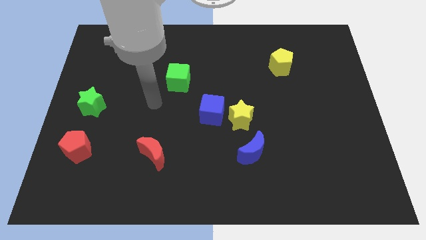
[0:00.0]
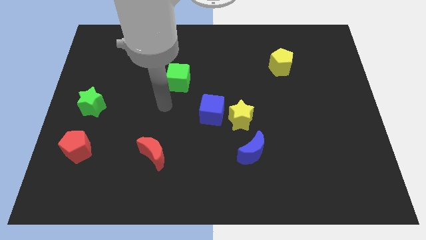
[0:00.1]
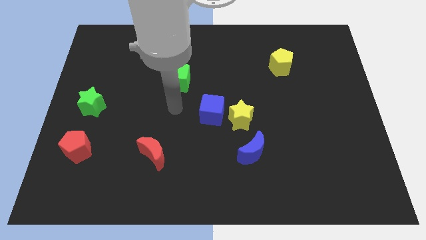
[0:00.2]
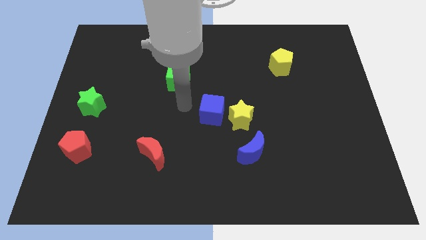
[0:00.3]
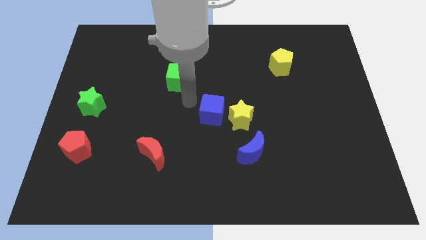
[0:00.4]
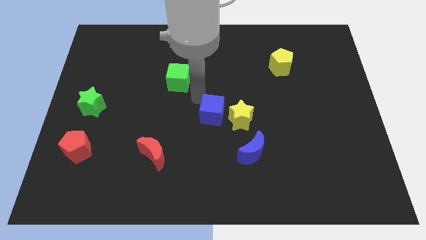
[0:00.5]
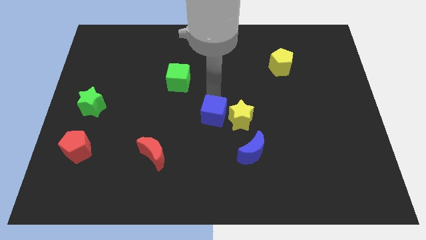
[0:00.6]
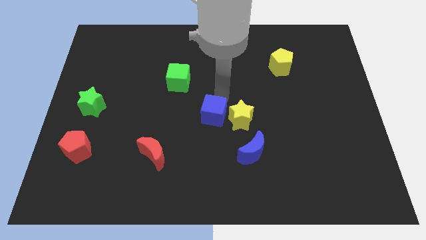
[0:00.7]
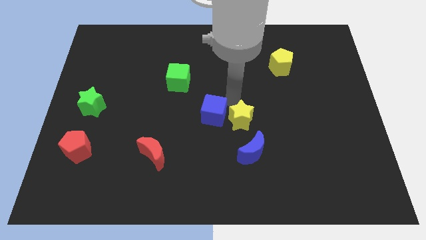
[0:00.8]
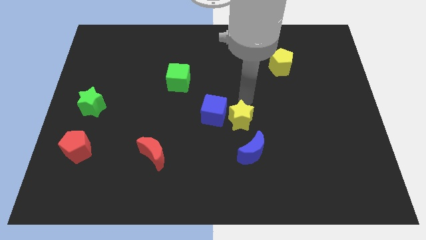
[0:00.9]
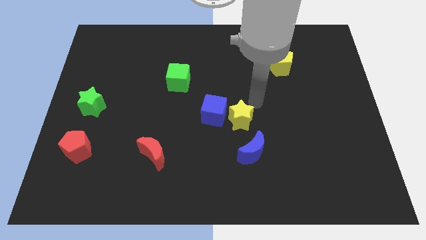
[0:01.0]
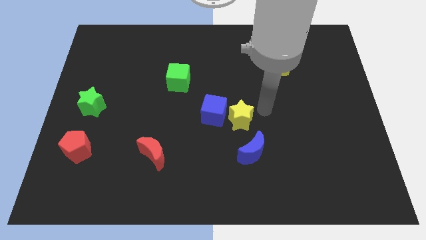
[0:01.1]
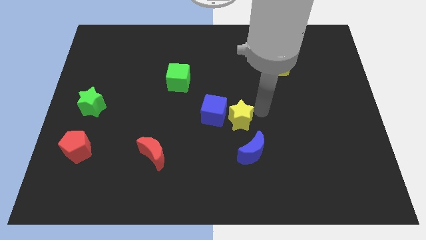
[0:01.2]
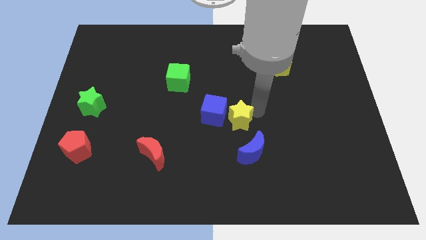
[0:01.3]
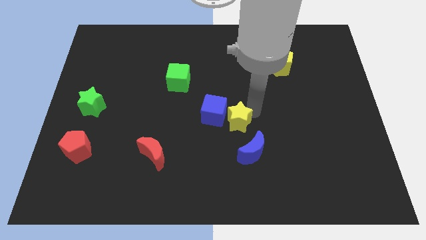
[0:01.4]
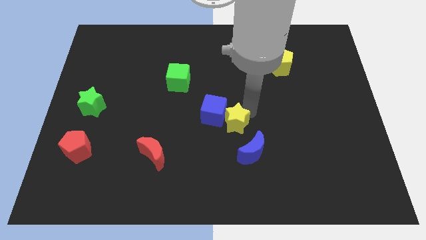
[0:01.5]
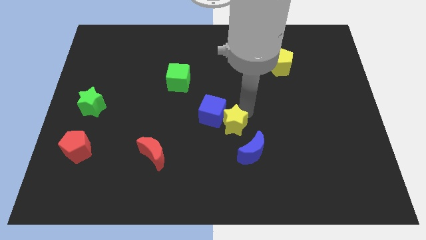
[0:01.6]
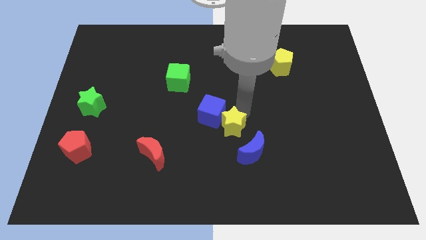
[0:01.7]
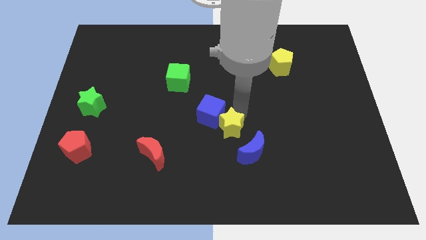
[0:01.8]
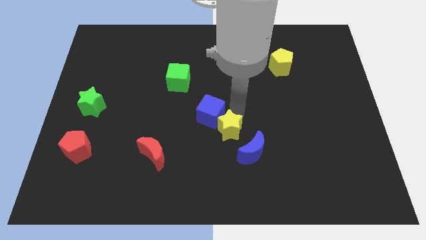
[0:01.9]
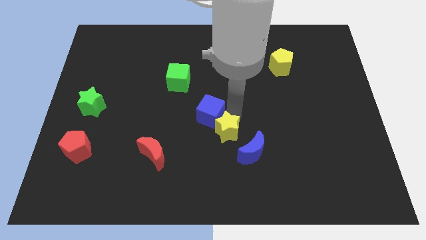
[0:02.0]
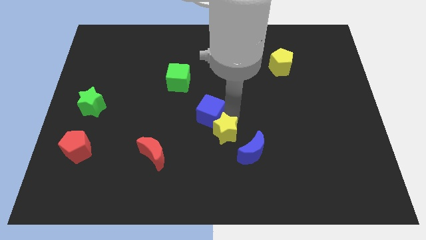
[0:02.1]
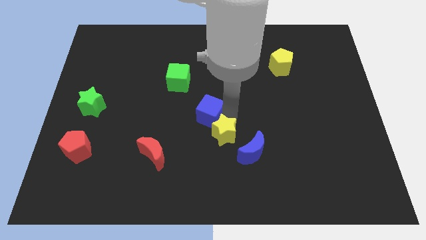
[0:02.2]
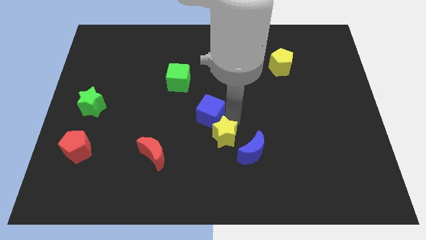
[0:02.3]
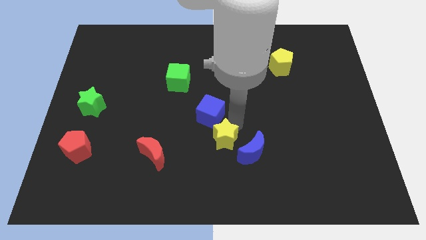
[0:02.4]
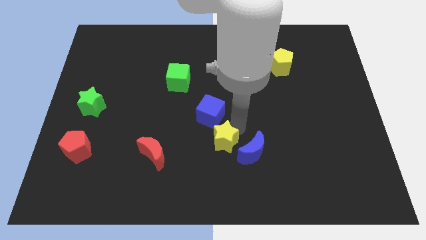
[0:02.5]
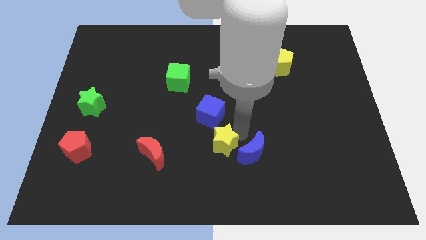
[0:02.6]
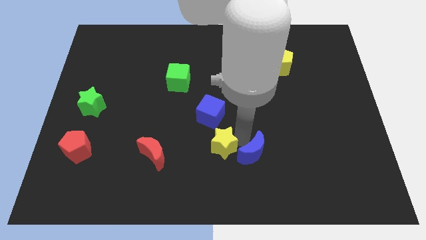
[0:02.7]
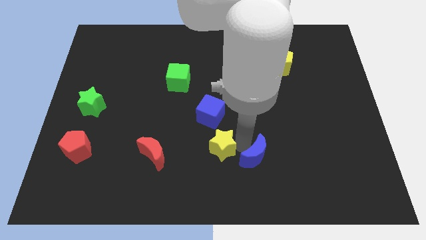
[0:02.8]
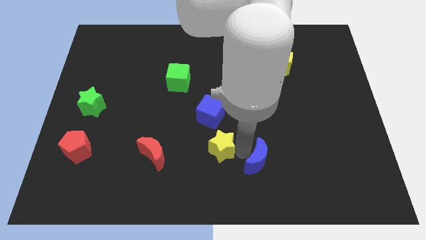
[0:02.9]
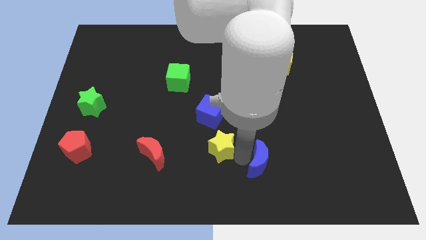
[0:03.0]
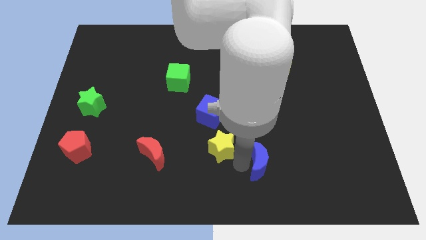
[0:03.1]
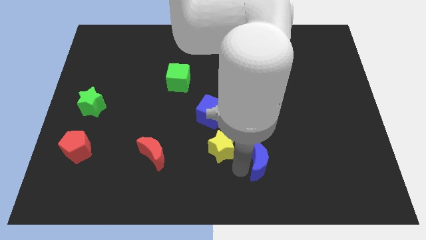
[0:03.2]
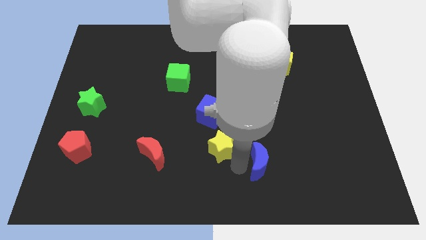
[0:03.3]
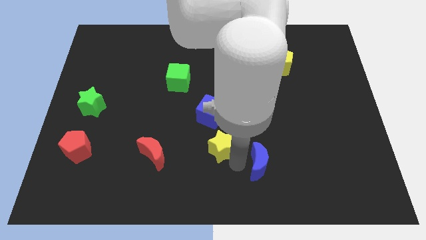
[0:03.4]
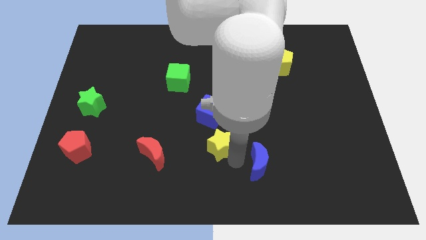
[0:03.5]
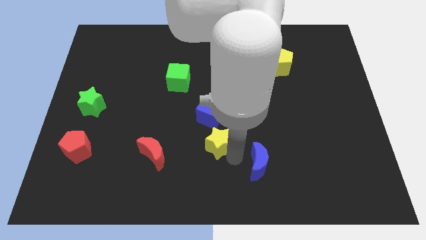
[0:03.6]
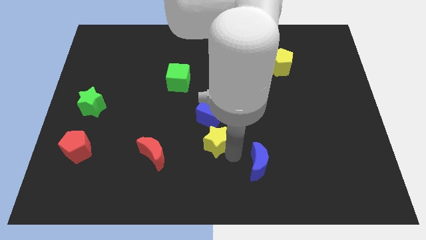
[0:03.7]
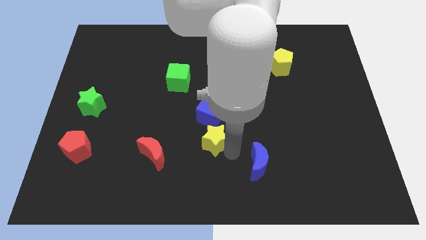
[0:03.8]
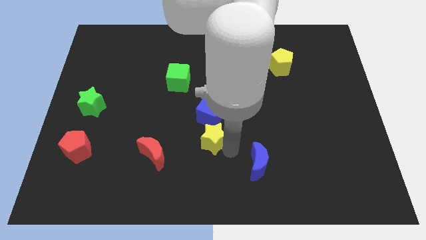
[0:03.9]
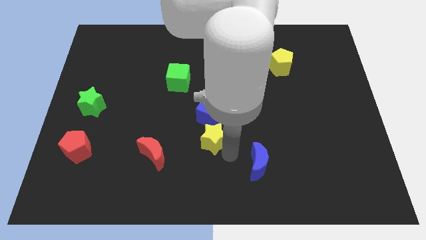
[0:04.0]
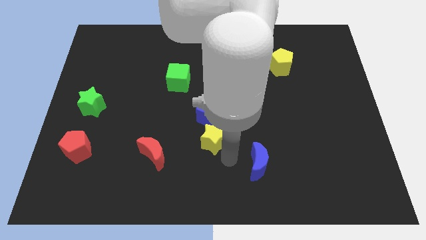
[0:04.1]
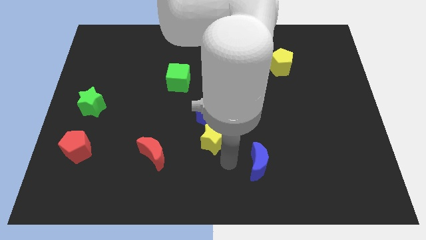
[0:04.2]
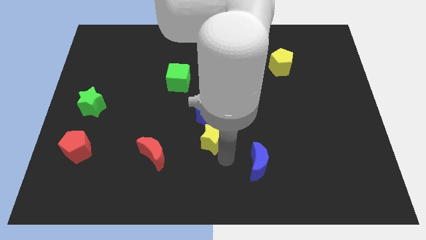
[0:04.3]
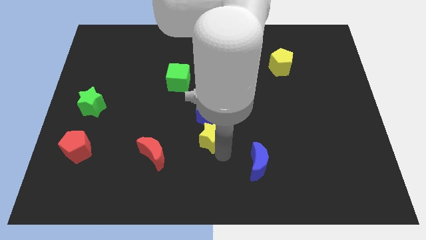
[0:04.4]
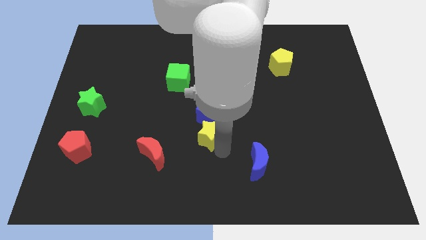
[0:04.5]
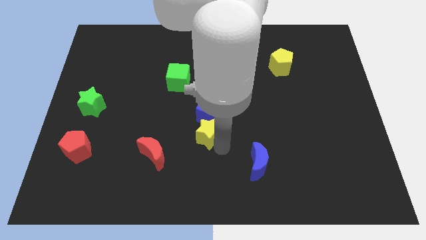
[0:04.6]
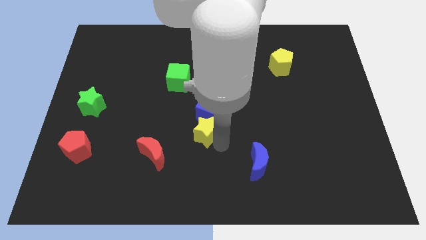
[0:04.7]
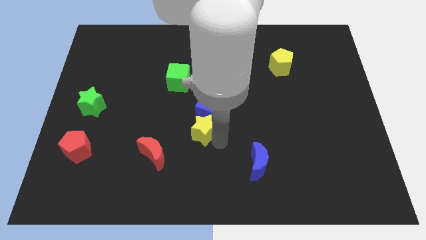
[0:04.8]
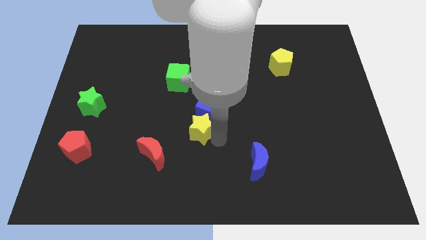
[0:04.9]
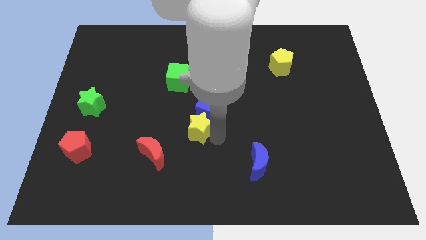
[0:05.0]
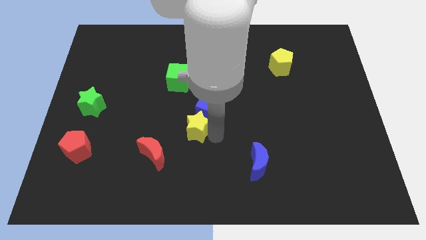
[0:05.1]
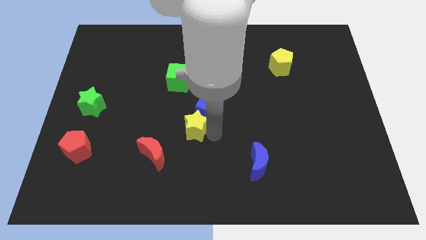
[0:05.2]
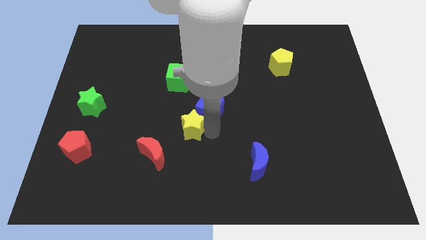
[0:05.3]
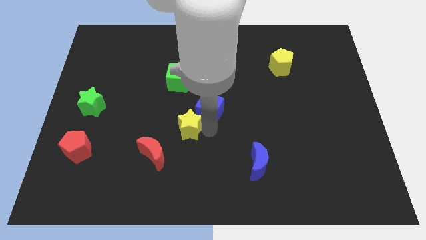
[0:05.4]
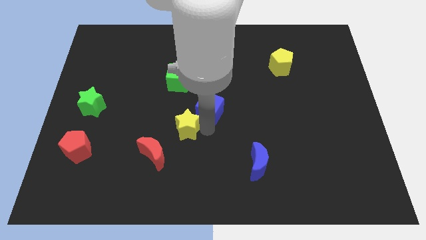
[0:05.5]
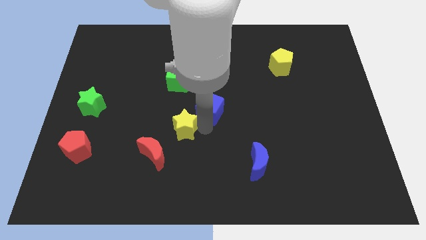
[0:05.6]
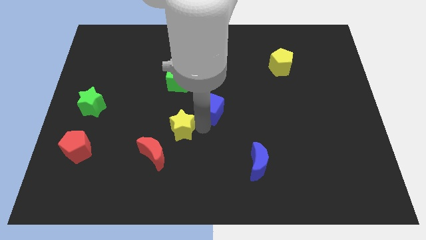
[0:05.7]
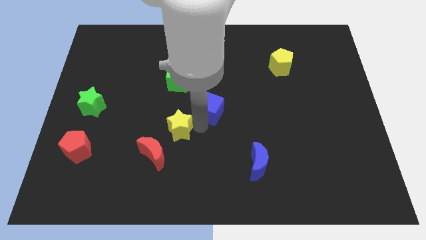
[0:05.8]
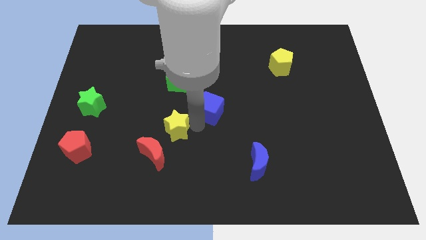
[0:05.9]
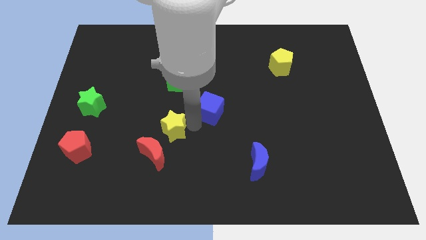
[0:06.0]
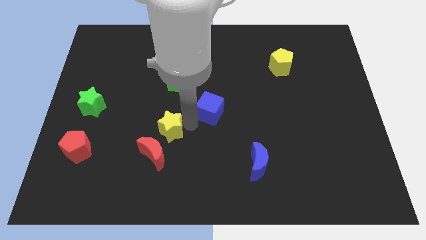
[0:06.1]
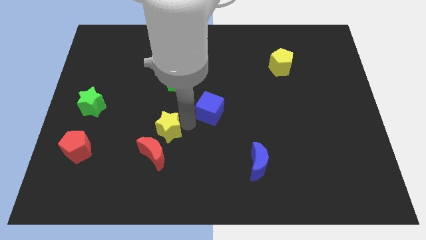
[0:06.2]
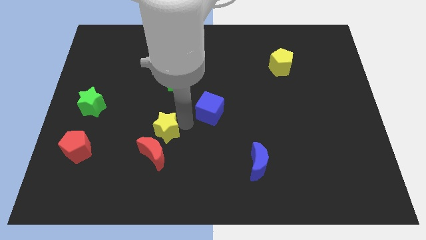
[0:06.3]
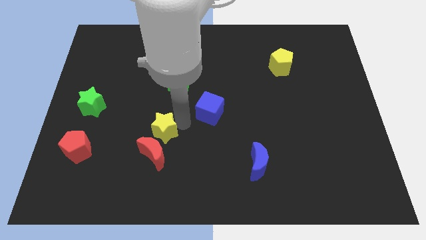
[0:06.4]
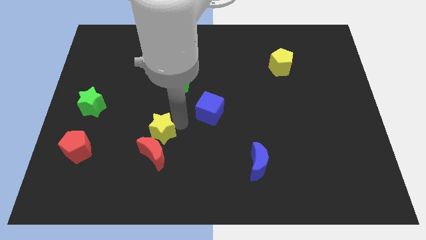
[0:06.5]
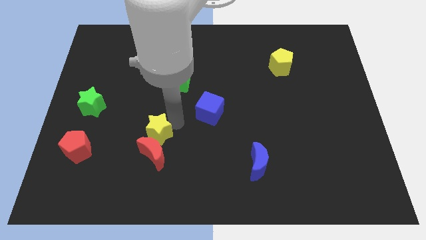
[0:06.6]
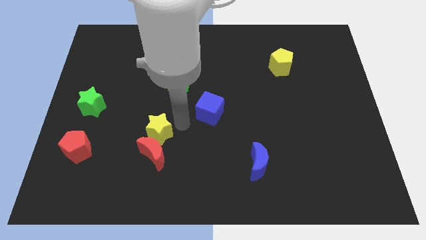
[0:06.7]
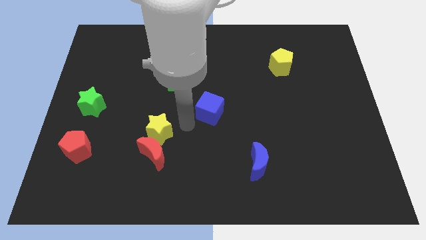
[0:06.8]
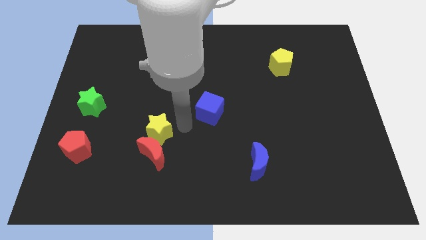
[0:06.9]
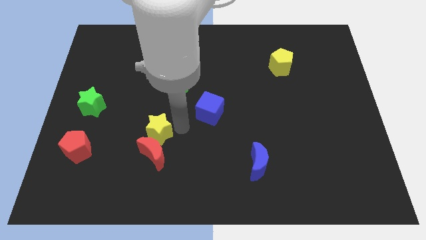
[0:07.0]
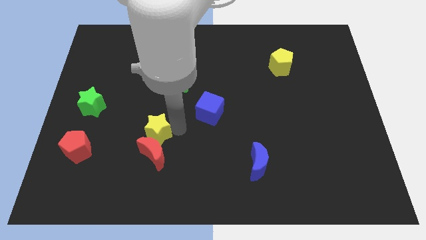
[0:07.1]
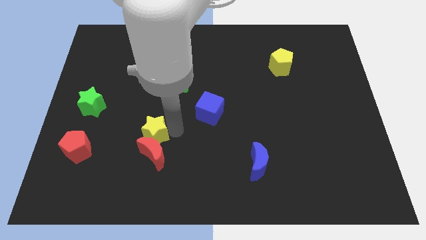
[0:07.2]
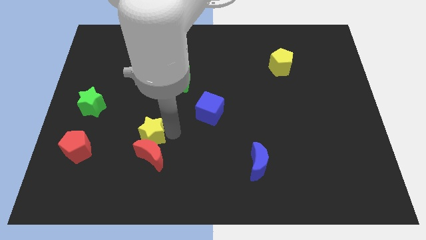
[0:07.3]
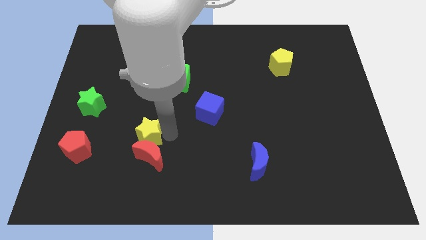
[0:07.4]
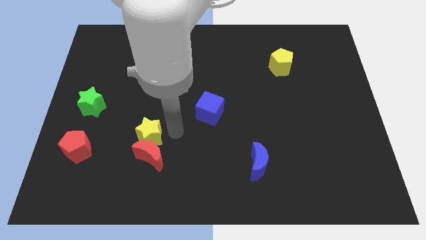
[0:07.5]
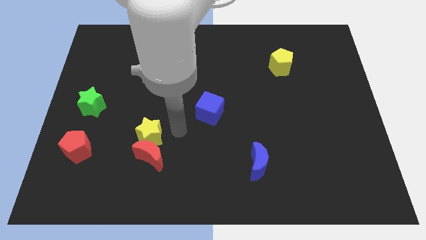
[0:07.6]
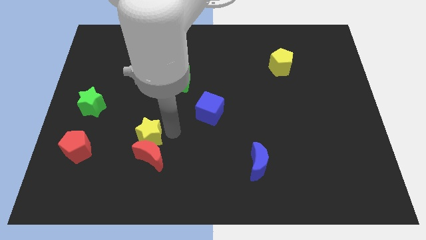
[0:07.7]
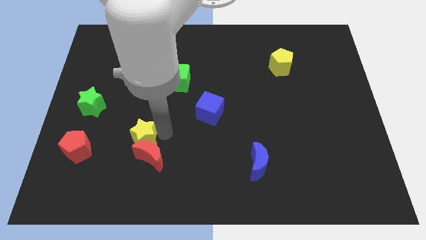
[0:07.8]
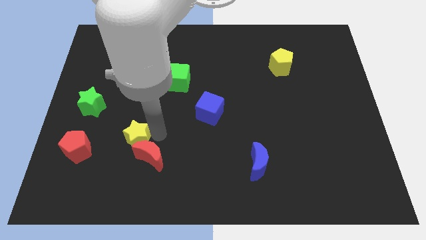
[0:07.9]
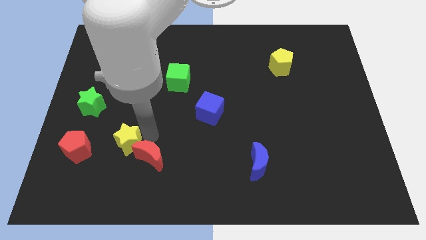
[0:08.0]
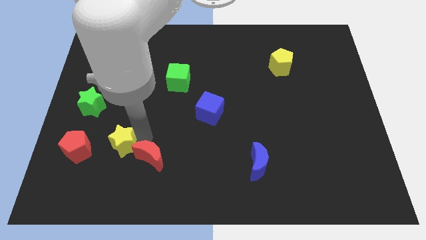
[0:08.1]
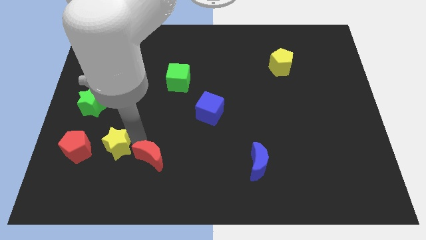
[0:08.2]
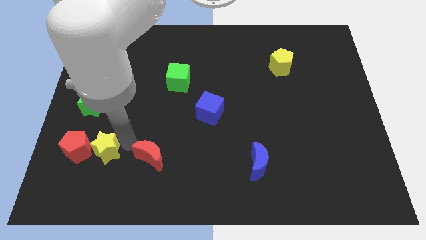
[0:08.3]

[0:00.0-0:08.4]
slide the yellow star next to the red pentagon
